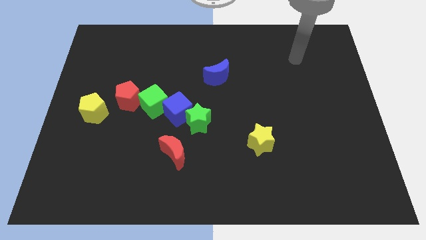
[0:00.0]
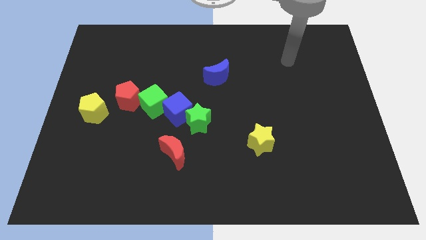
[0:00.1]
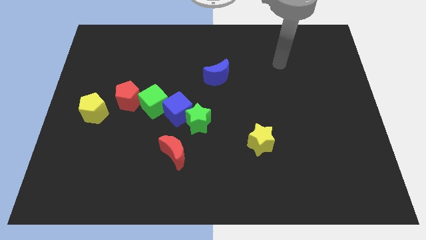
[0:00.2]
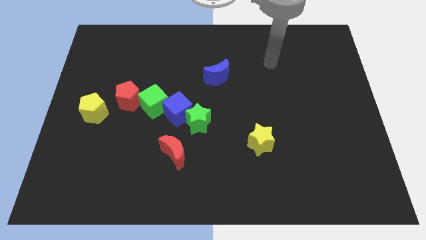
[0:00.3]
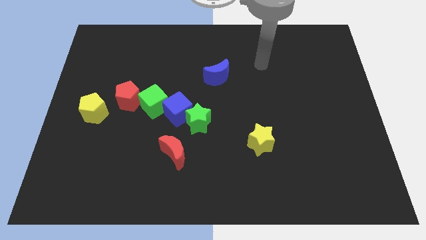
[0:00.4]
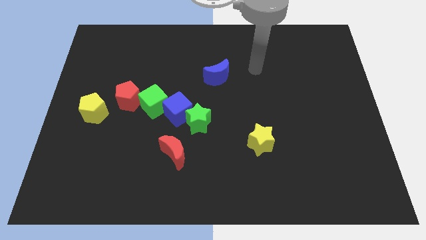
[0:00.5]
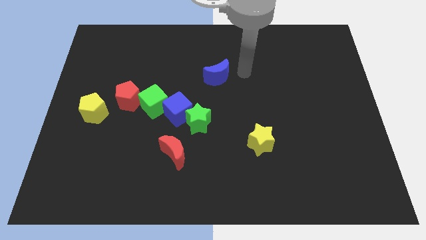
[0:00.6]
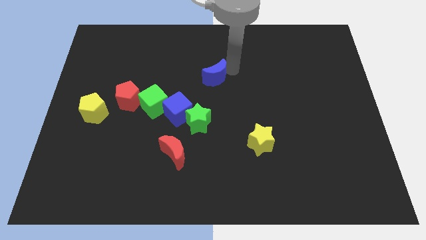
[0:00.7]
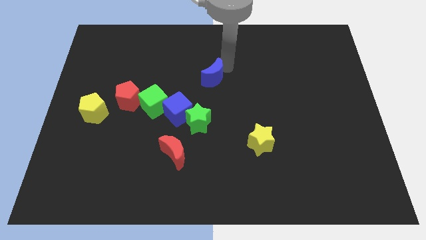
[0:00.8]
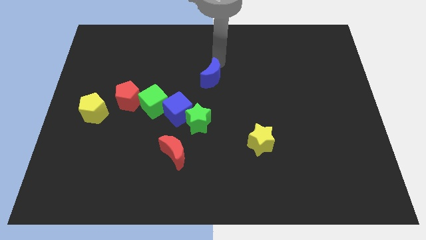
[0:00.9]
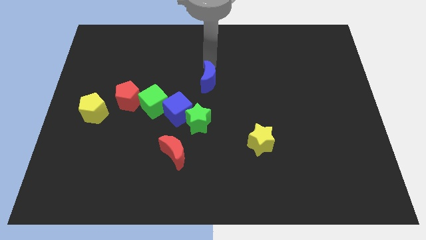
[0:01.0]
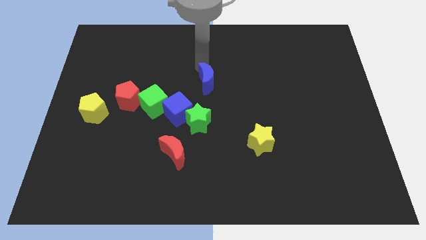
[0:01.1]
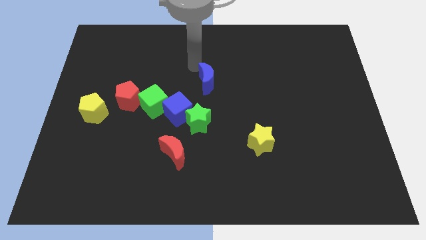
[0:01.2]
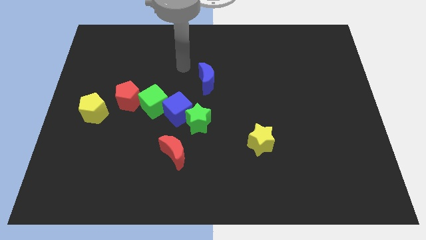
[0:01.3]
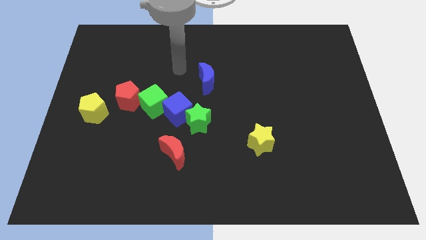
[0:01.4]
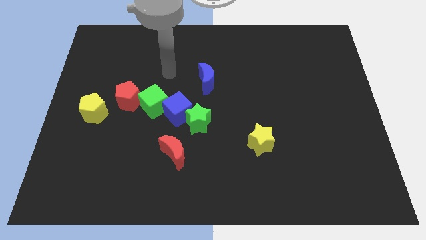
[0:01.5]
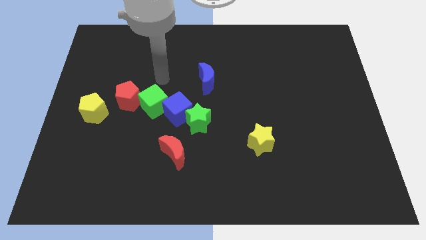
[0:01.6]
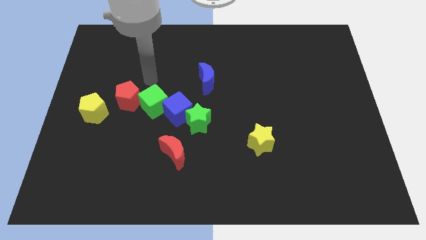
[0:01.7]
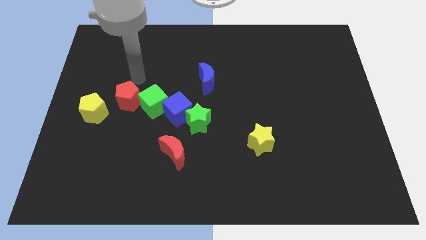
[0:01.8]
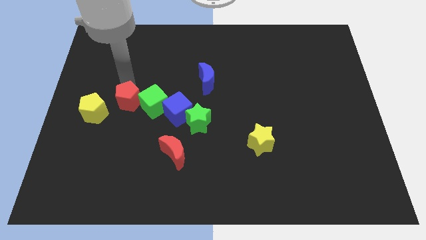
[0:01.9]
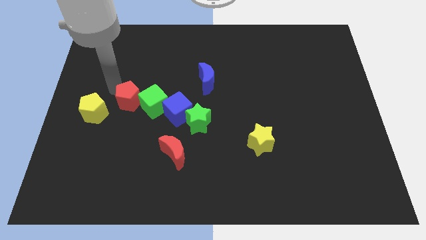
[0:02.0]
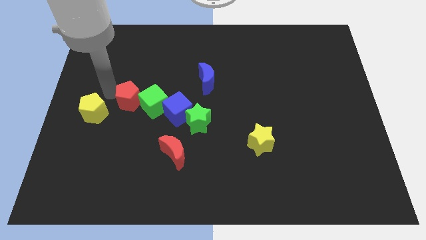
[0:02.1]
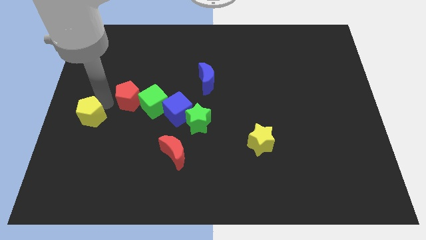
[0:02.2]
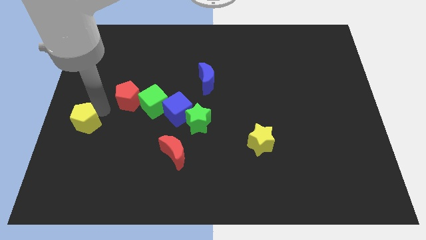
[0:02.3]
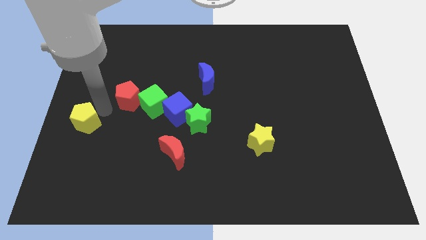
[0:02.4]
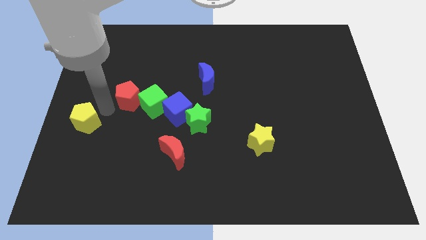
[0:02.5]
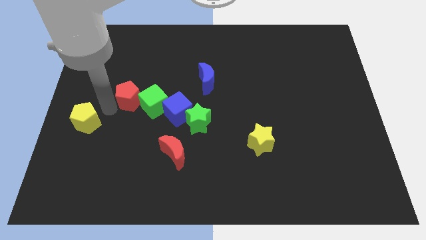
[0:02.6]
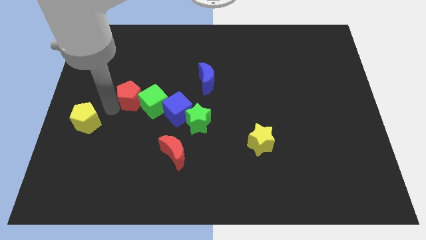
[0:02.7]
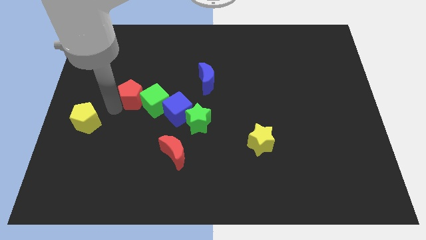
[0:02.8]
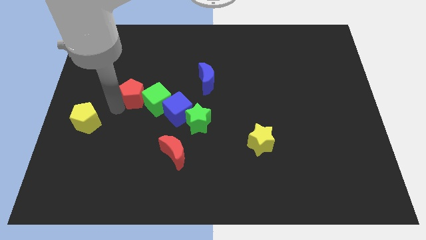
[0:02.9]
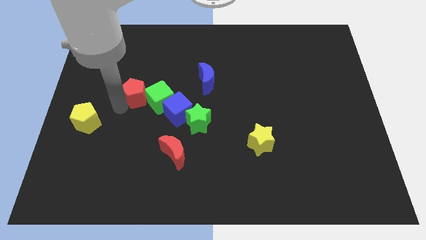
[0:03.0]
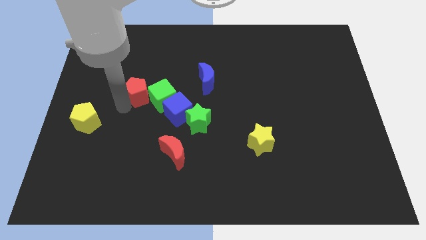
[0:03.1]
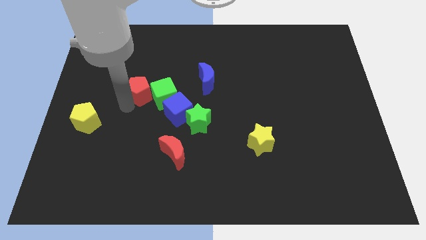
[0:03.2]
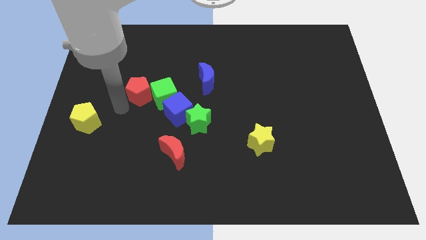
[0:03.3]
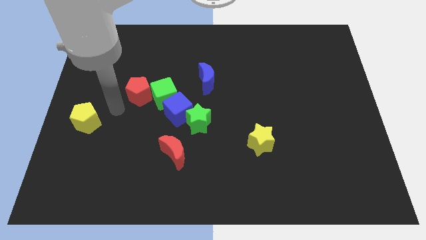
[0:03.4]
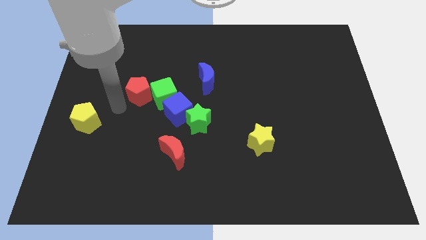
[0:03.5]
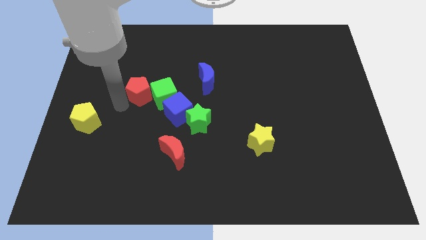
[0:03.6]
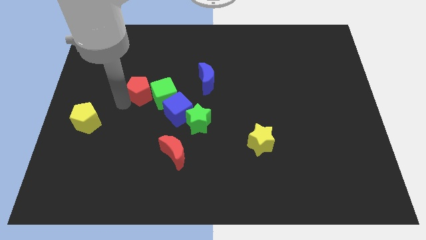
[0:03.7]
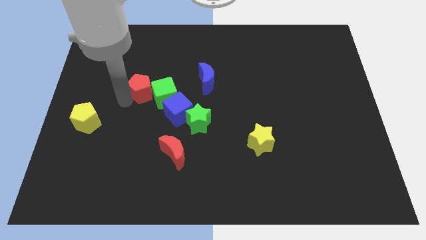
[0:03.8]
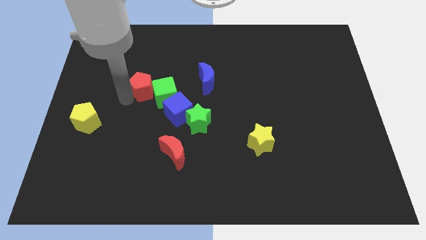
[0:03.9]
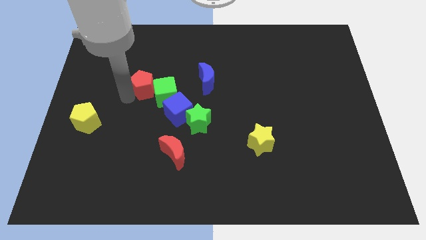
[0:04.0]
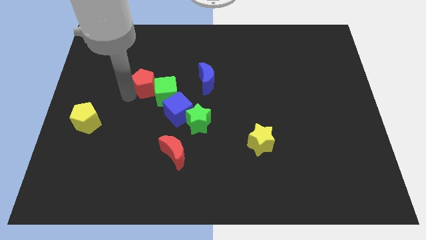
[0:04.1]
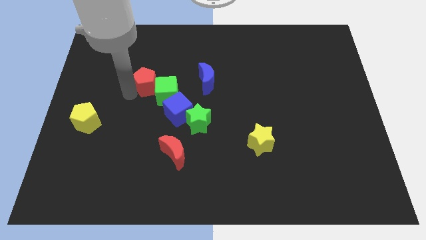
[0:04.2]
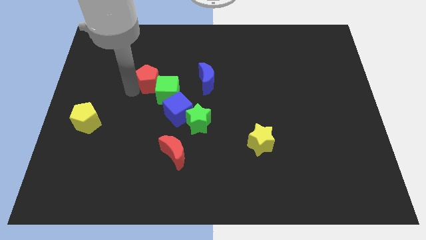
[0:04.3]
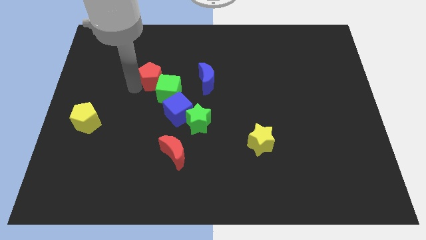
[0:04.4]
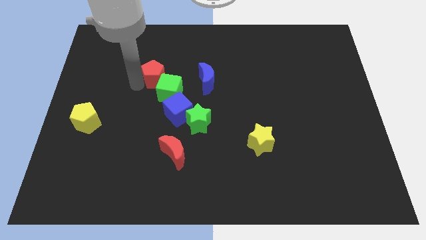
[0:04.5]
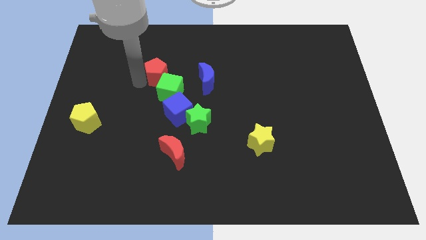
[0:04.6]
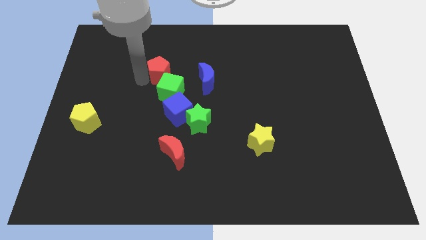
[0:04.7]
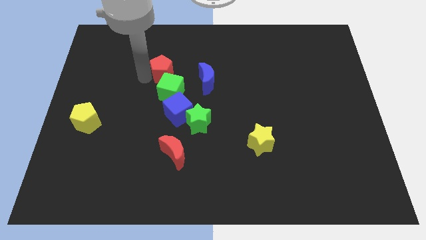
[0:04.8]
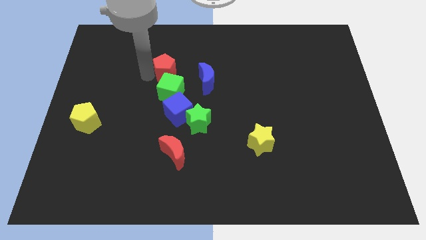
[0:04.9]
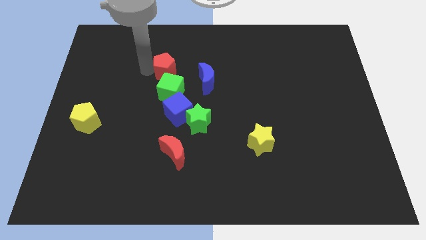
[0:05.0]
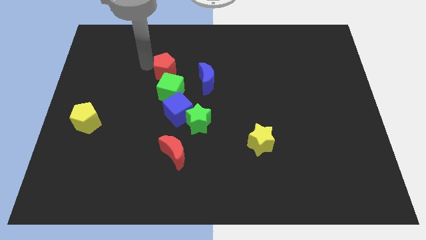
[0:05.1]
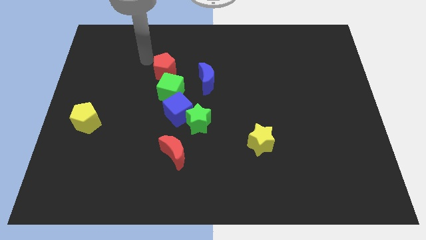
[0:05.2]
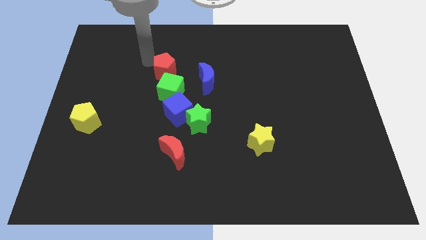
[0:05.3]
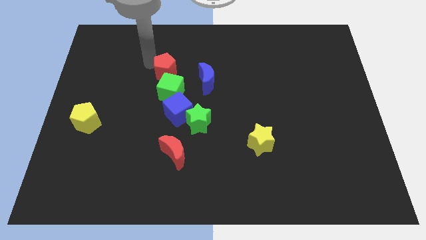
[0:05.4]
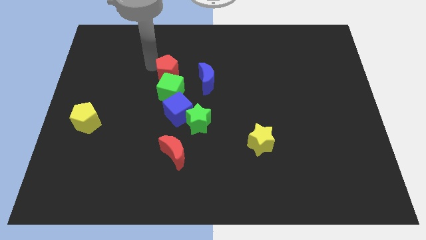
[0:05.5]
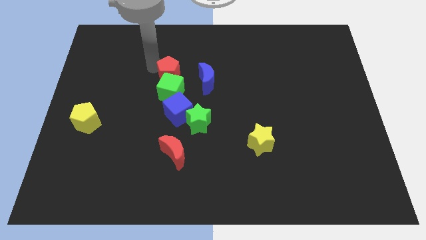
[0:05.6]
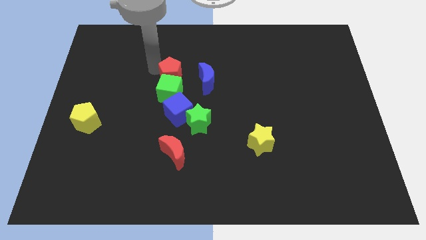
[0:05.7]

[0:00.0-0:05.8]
slightly push the red pentagon to the right

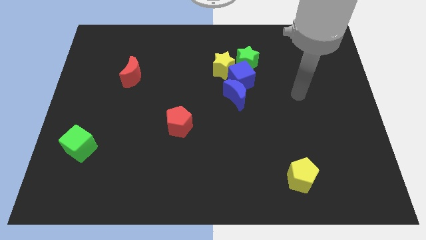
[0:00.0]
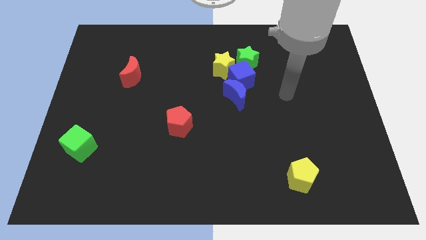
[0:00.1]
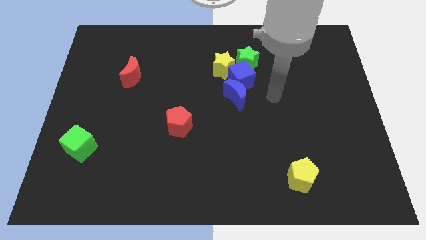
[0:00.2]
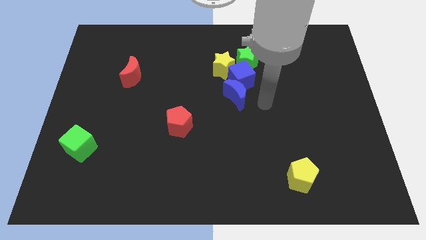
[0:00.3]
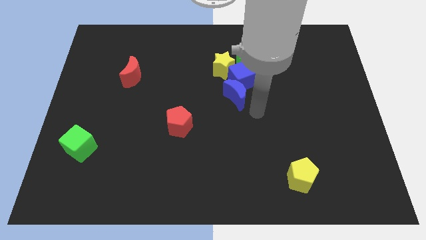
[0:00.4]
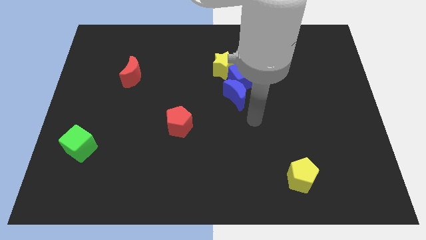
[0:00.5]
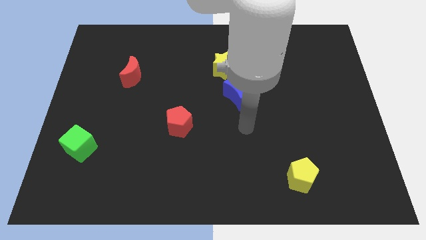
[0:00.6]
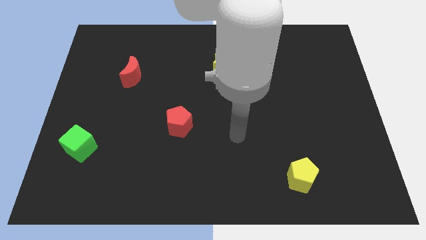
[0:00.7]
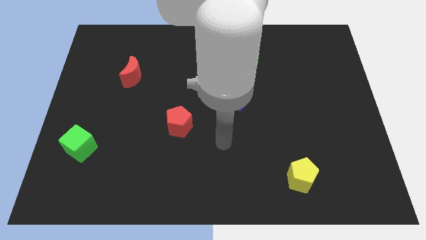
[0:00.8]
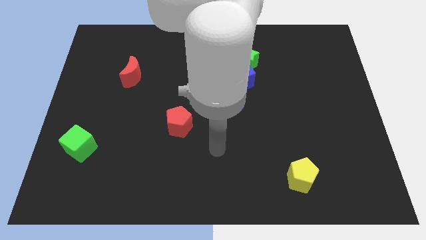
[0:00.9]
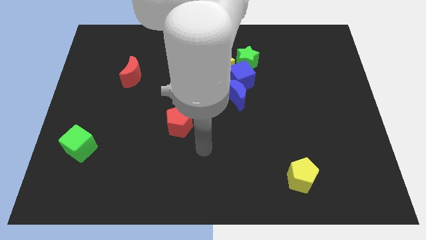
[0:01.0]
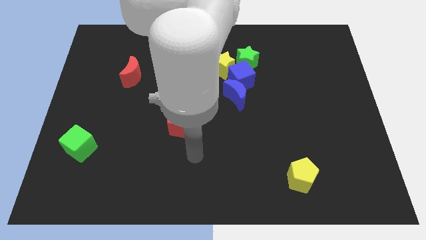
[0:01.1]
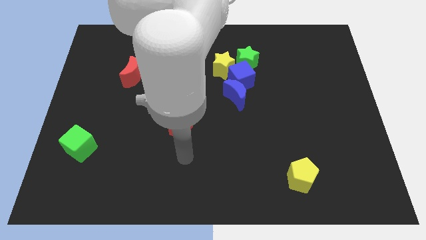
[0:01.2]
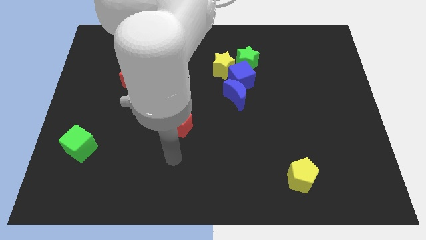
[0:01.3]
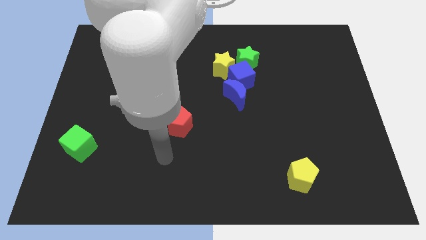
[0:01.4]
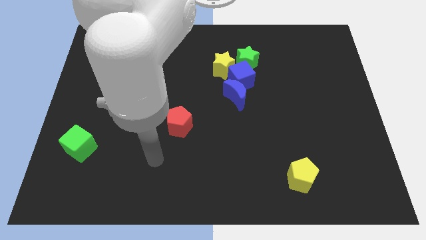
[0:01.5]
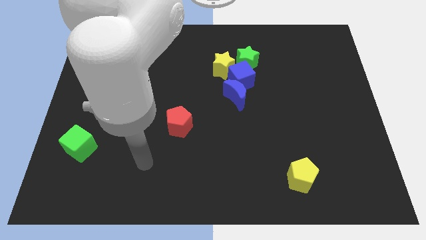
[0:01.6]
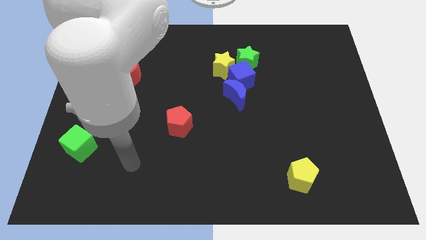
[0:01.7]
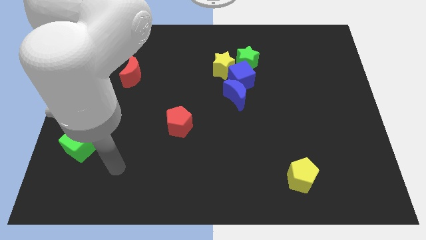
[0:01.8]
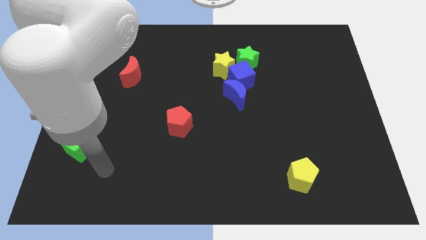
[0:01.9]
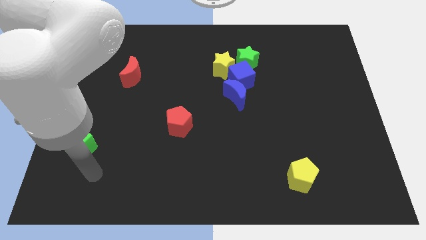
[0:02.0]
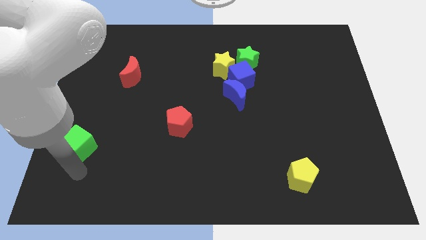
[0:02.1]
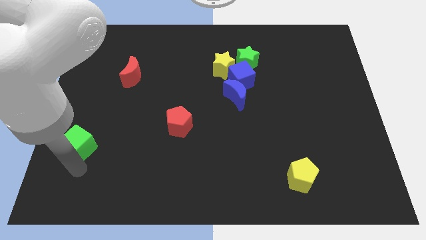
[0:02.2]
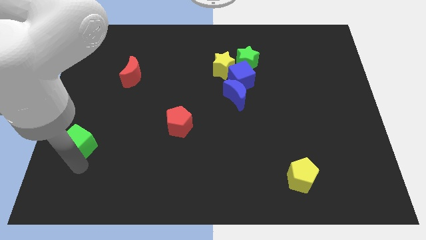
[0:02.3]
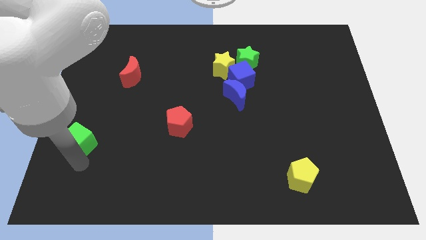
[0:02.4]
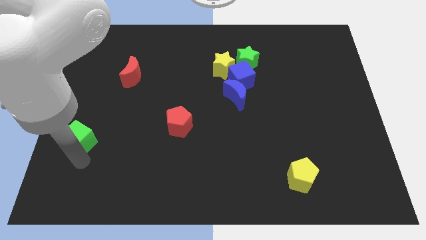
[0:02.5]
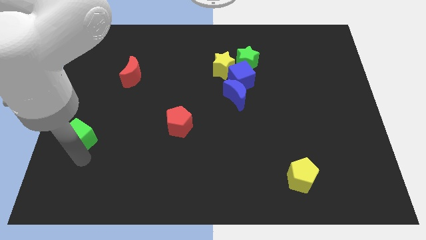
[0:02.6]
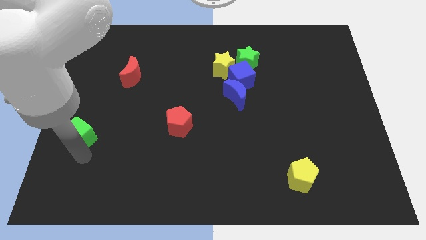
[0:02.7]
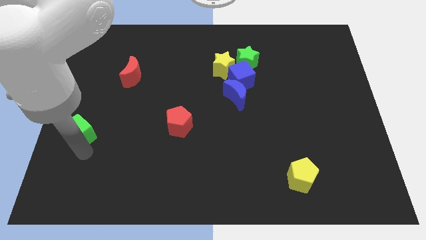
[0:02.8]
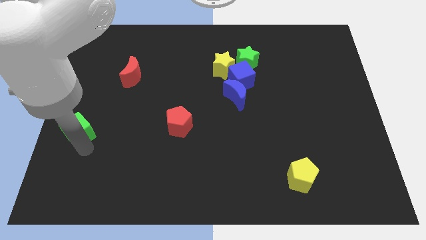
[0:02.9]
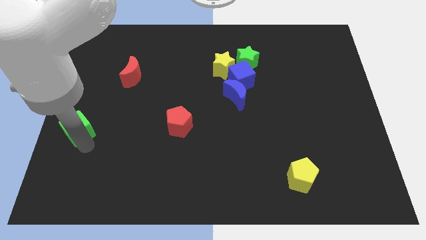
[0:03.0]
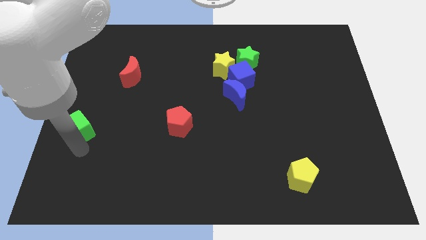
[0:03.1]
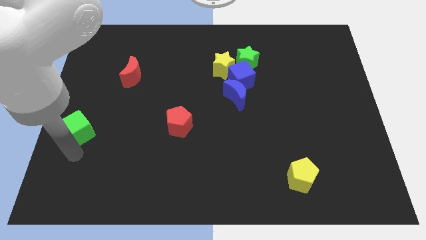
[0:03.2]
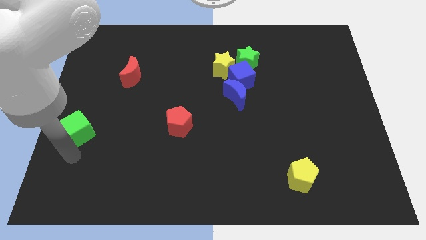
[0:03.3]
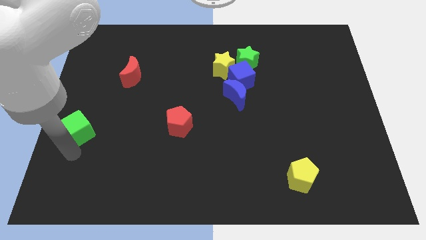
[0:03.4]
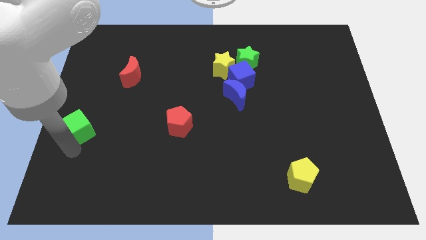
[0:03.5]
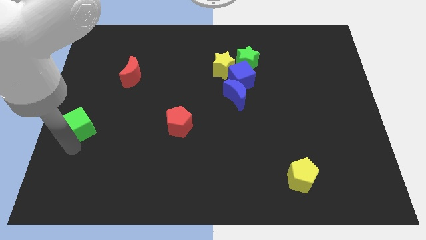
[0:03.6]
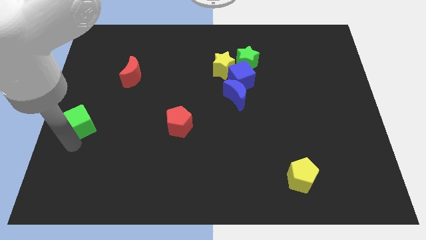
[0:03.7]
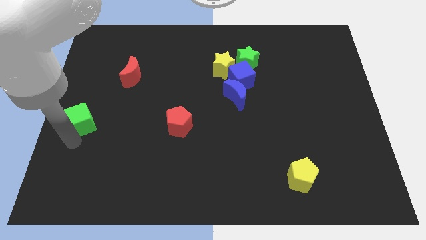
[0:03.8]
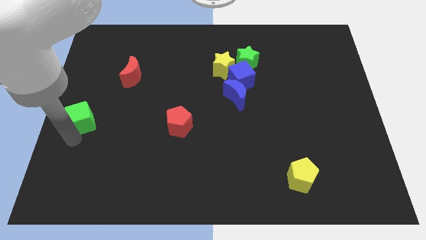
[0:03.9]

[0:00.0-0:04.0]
move the green cube a little bit upwards
